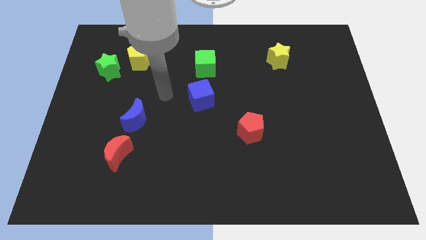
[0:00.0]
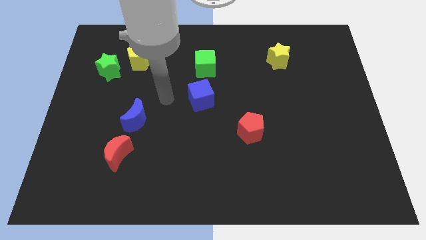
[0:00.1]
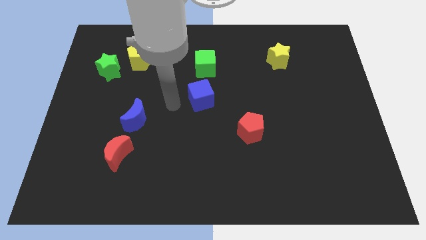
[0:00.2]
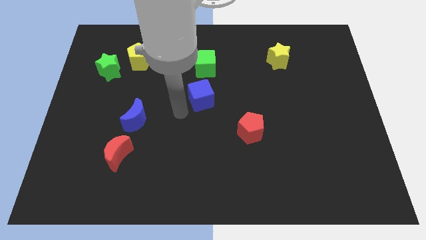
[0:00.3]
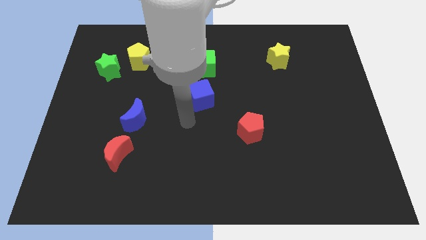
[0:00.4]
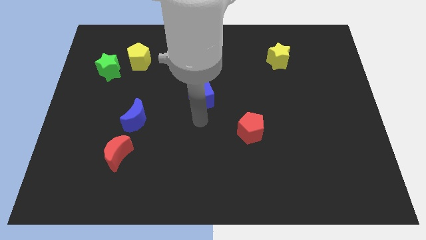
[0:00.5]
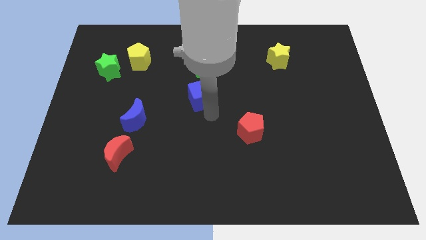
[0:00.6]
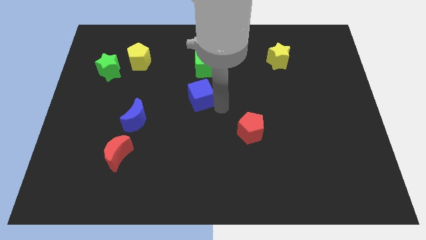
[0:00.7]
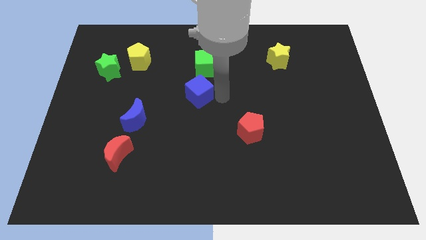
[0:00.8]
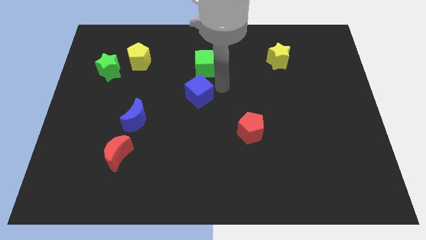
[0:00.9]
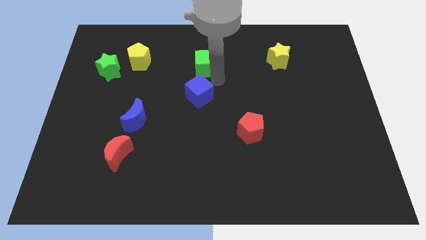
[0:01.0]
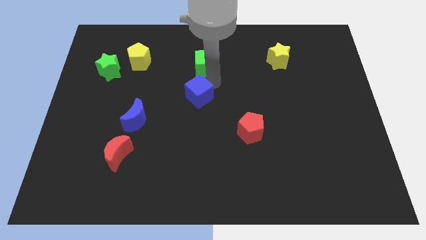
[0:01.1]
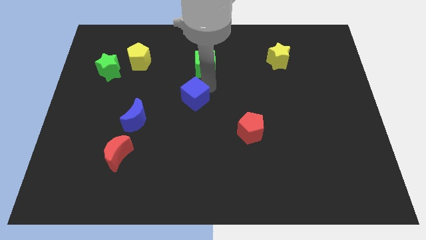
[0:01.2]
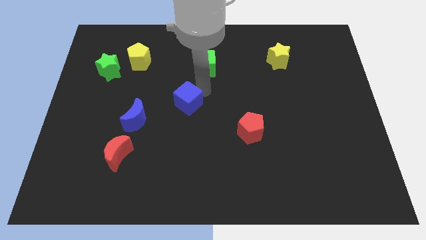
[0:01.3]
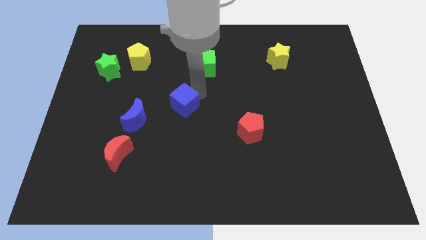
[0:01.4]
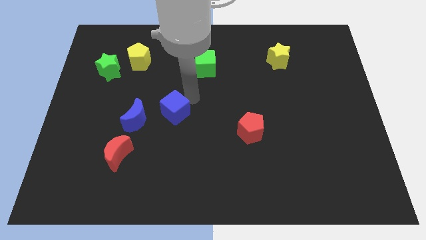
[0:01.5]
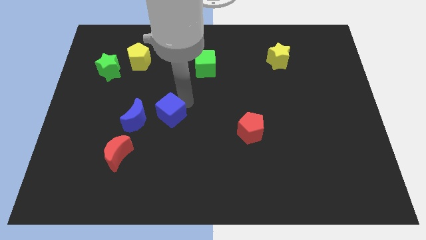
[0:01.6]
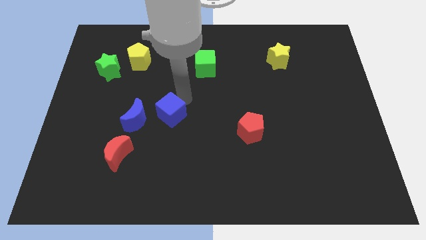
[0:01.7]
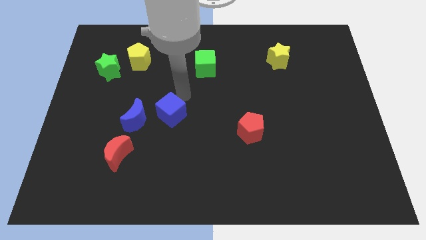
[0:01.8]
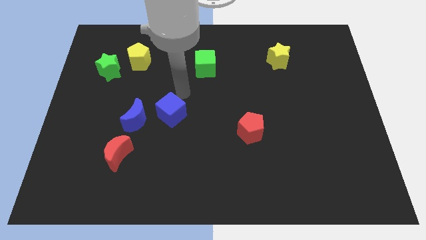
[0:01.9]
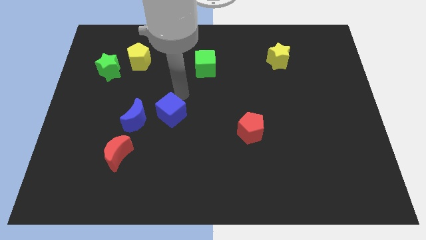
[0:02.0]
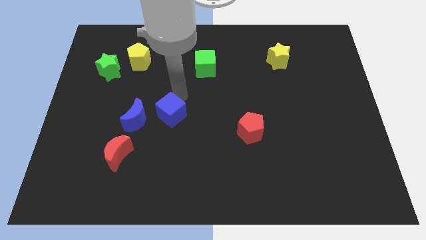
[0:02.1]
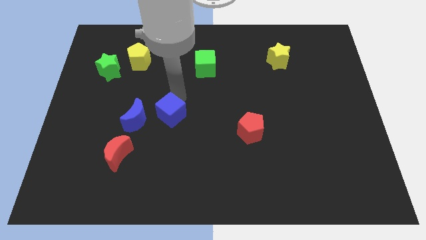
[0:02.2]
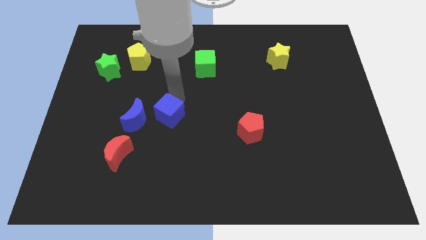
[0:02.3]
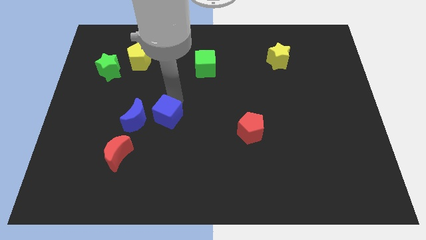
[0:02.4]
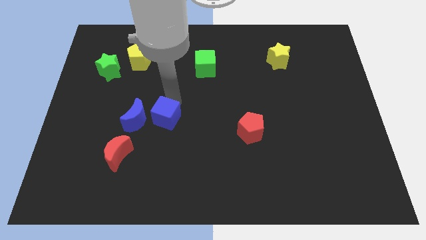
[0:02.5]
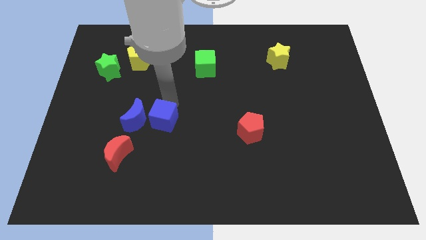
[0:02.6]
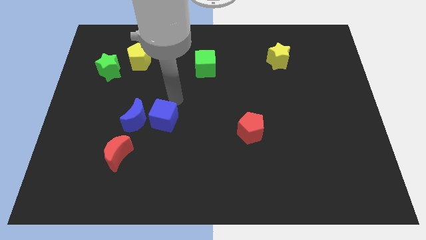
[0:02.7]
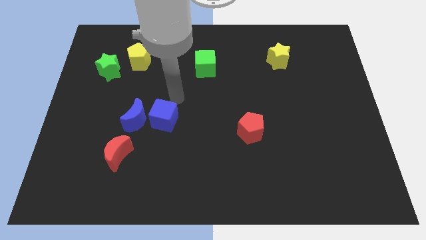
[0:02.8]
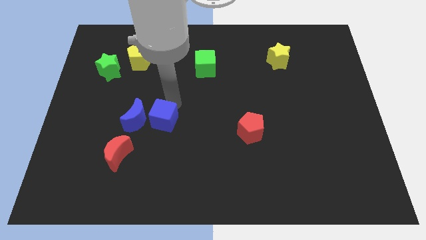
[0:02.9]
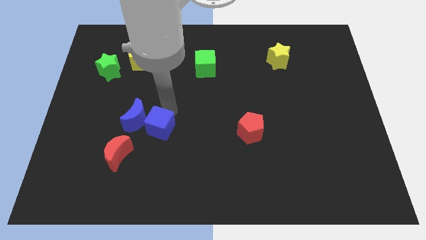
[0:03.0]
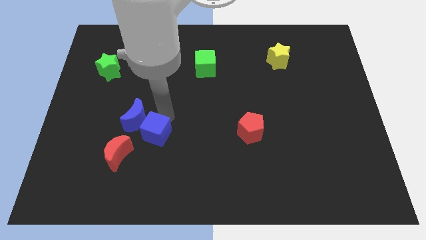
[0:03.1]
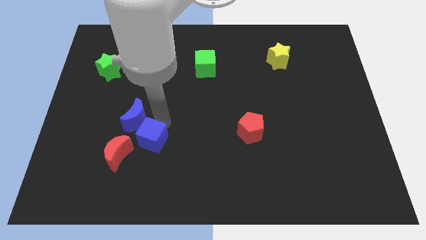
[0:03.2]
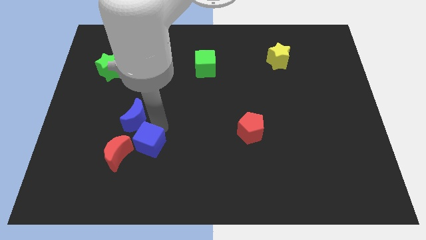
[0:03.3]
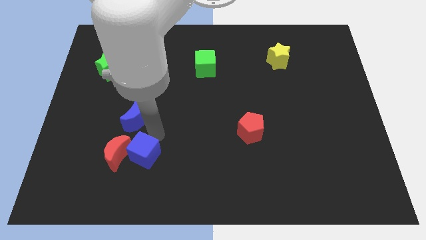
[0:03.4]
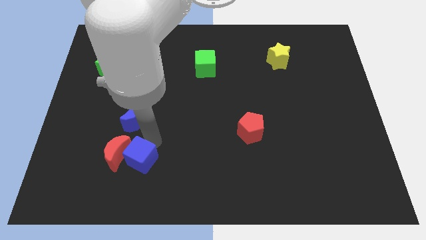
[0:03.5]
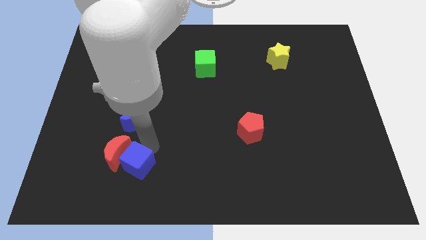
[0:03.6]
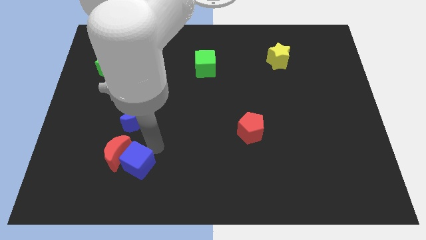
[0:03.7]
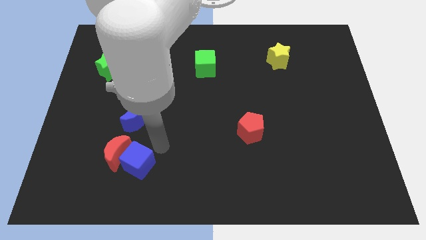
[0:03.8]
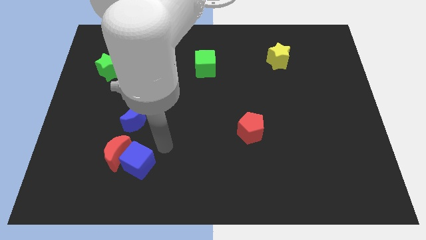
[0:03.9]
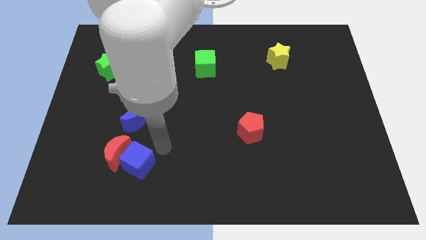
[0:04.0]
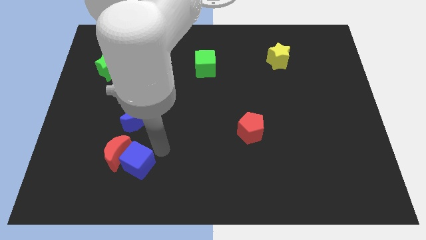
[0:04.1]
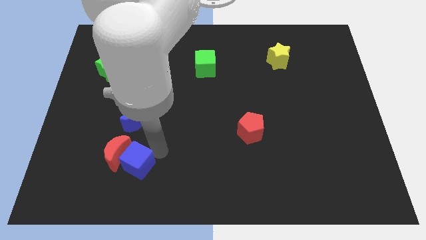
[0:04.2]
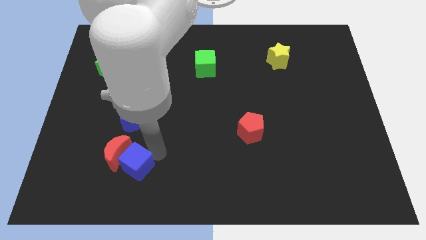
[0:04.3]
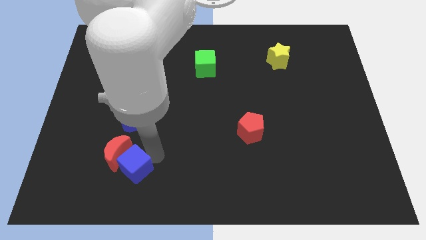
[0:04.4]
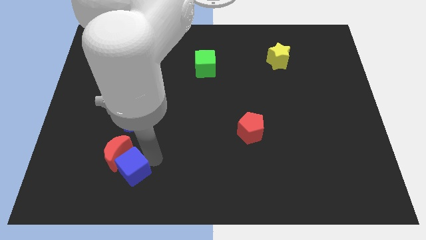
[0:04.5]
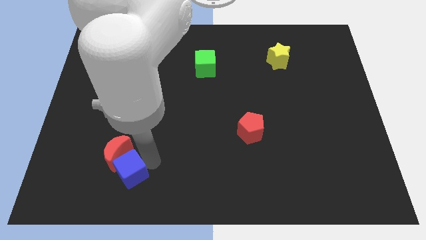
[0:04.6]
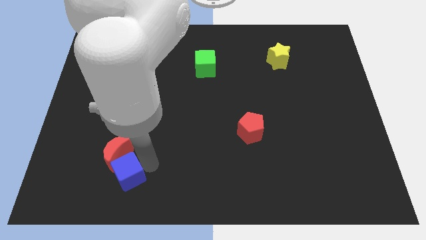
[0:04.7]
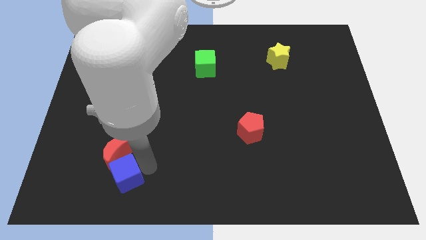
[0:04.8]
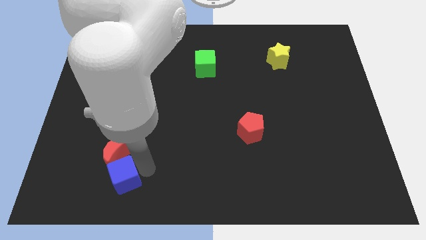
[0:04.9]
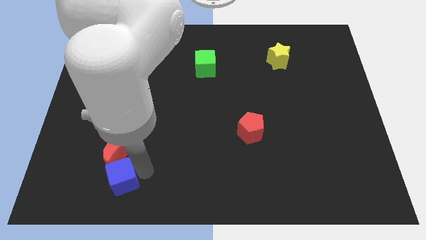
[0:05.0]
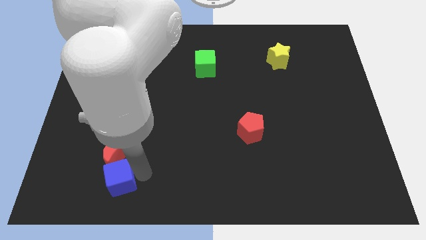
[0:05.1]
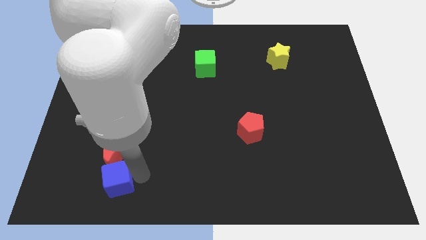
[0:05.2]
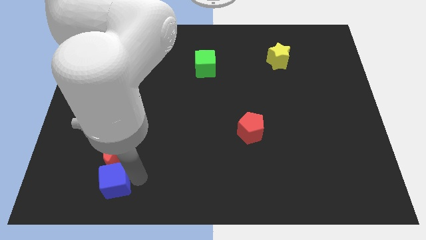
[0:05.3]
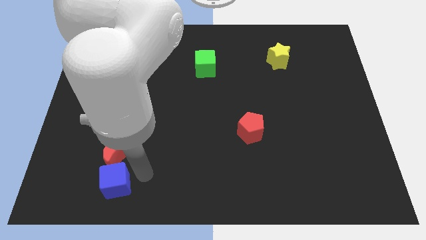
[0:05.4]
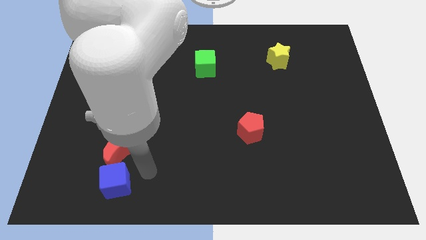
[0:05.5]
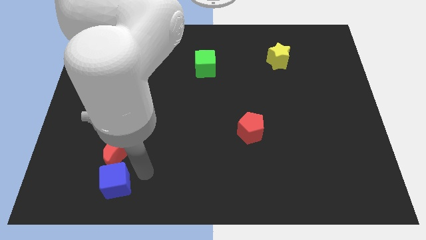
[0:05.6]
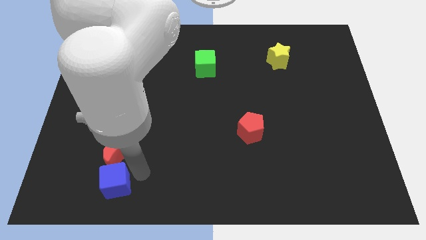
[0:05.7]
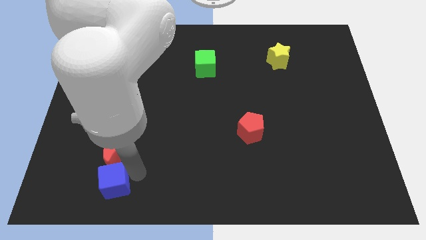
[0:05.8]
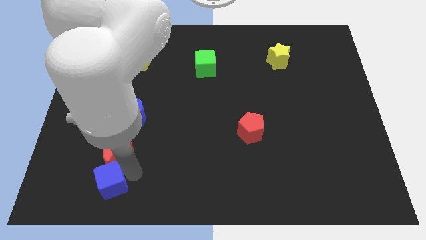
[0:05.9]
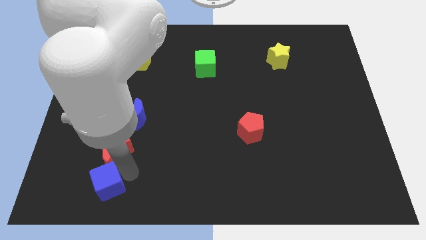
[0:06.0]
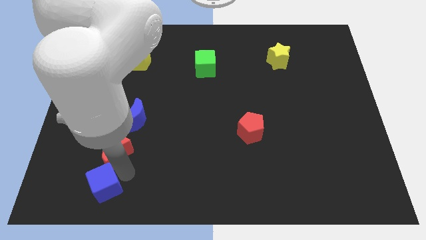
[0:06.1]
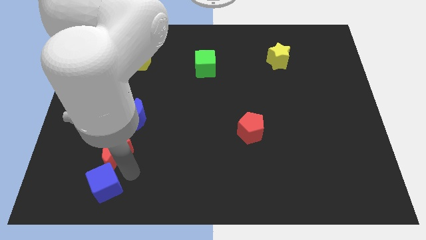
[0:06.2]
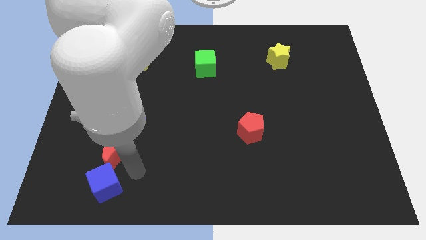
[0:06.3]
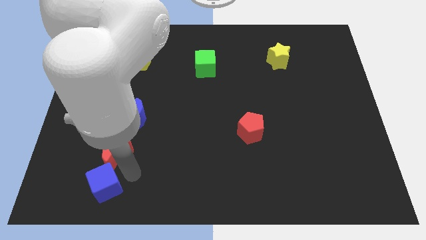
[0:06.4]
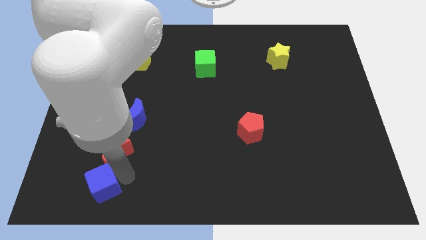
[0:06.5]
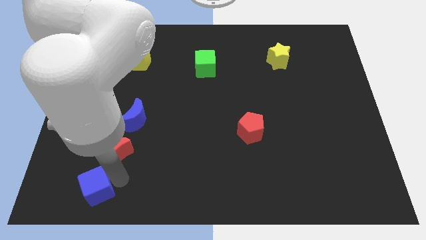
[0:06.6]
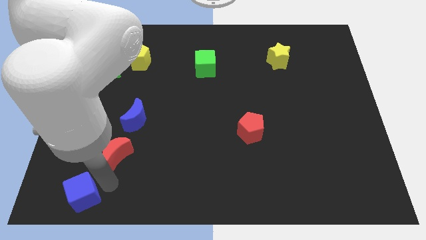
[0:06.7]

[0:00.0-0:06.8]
push the blue cube to the bottom left
